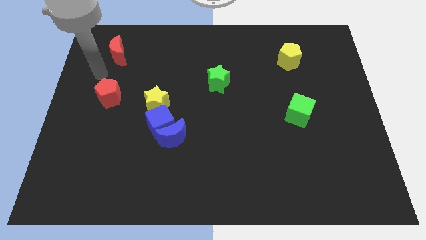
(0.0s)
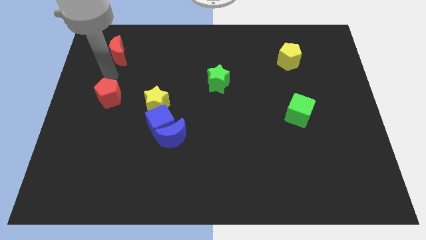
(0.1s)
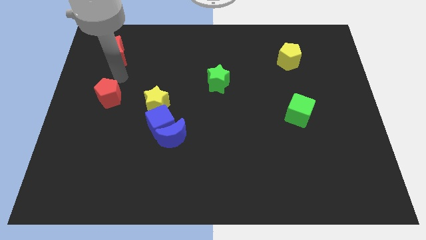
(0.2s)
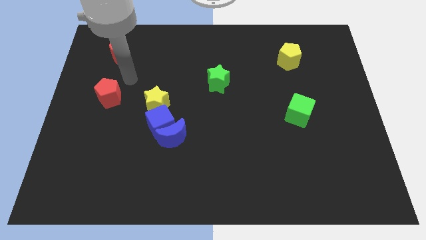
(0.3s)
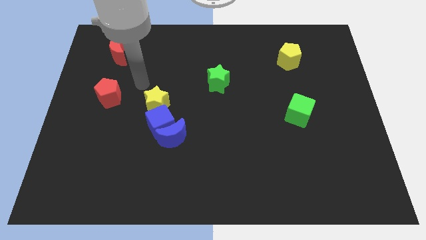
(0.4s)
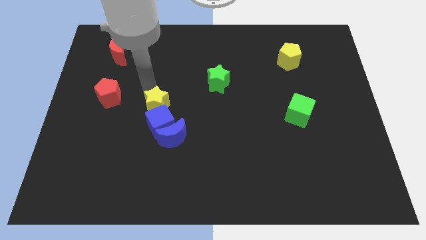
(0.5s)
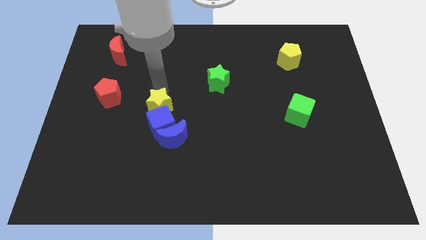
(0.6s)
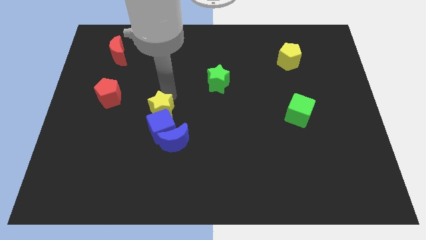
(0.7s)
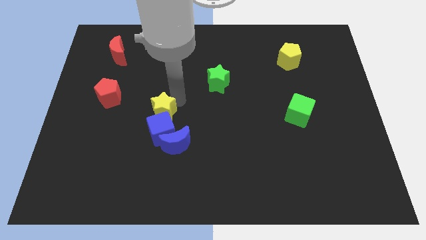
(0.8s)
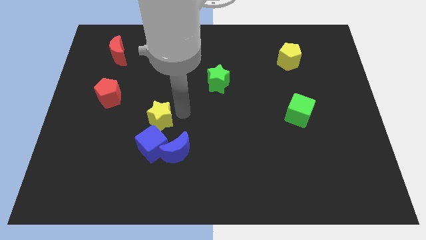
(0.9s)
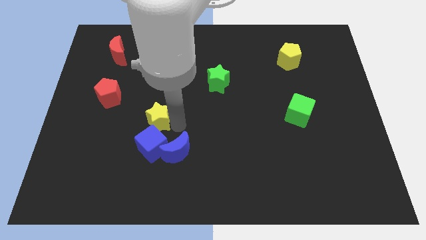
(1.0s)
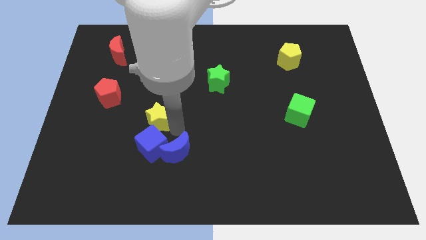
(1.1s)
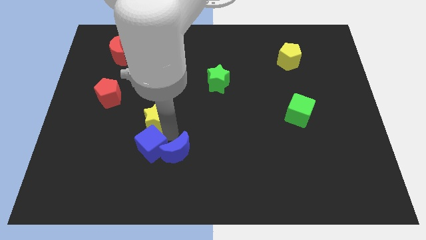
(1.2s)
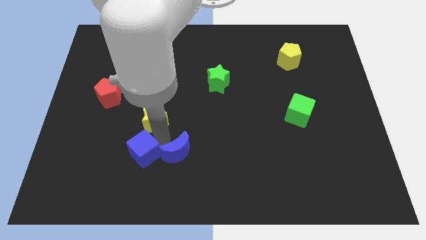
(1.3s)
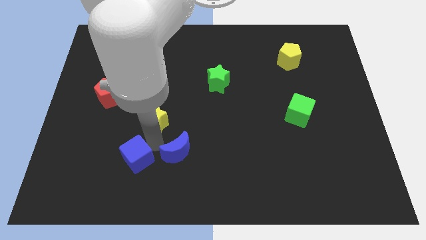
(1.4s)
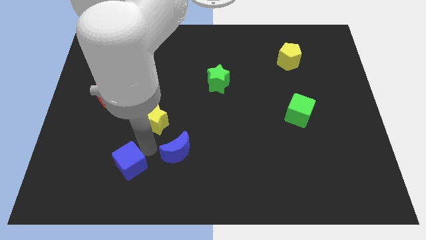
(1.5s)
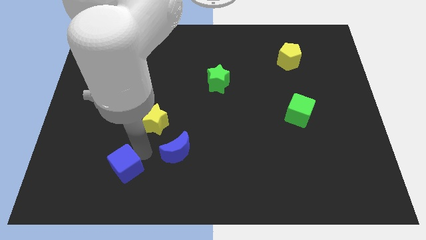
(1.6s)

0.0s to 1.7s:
move the blue cube away from the blue moon and yellow star

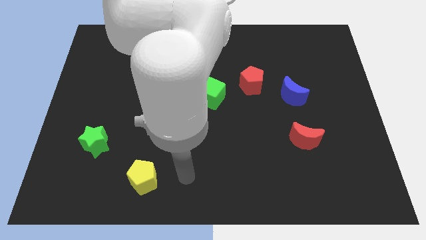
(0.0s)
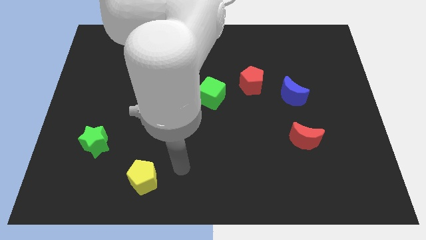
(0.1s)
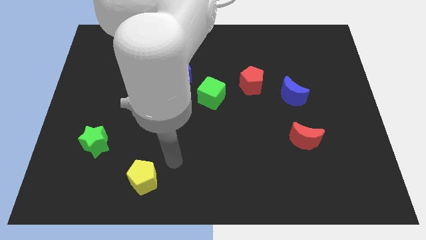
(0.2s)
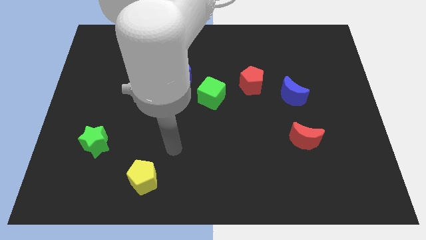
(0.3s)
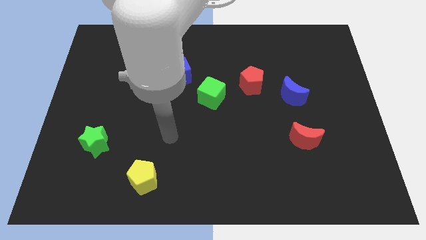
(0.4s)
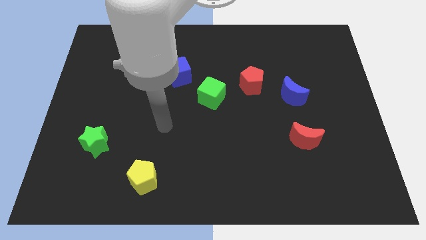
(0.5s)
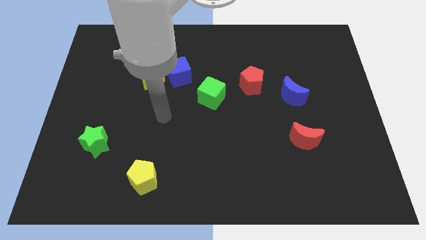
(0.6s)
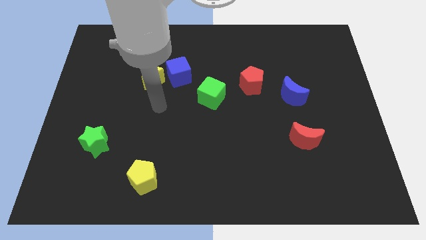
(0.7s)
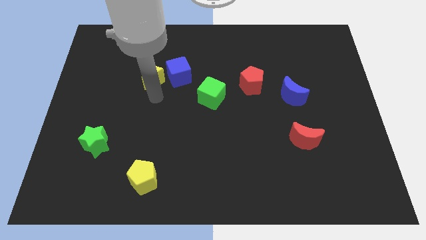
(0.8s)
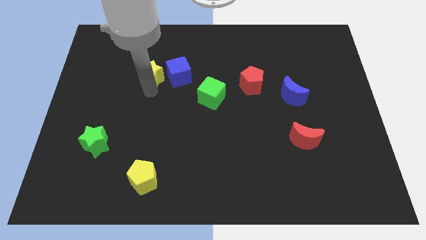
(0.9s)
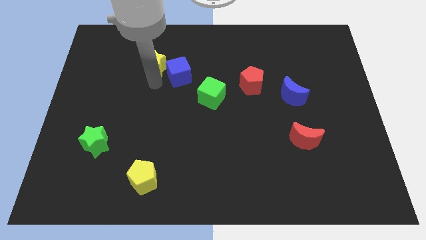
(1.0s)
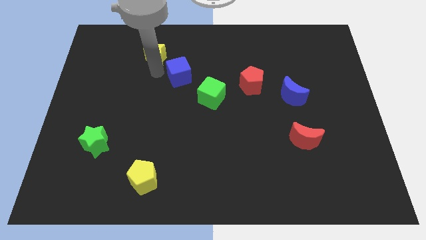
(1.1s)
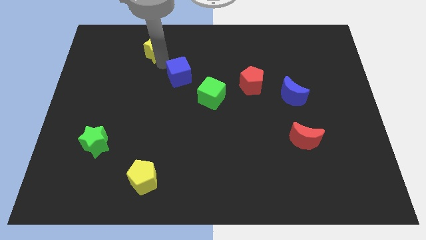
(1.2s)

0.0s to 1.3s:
move the blue cube away from the yellow star

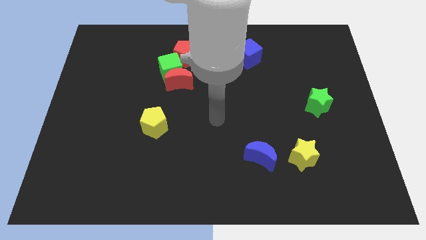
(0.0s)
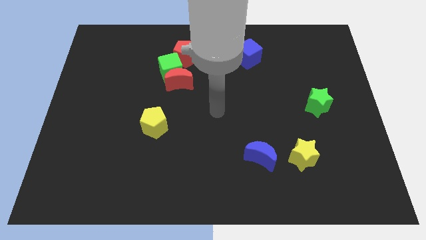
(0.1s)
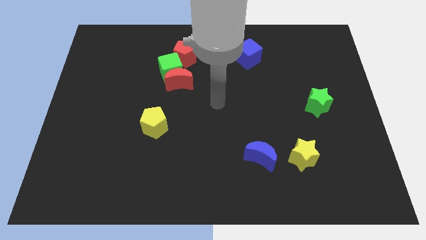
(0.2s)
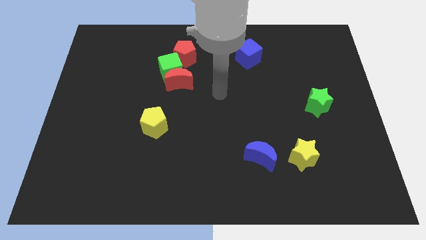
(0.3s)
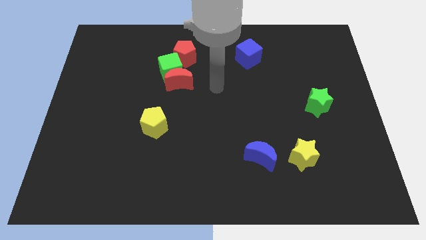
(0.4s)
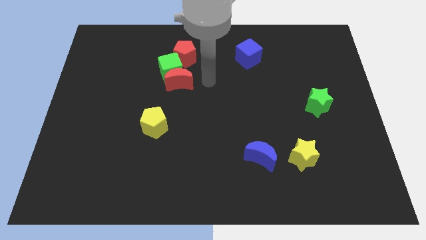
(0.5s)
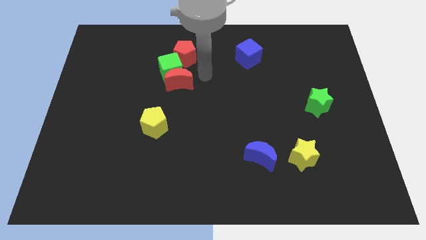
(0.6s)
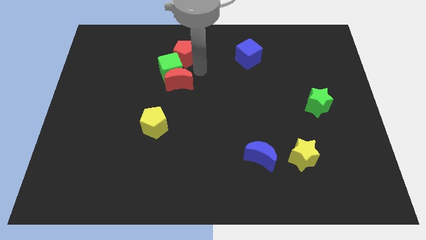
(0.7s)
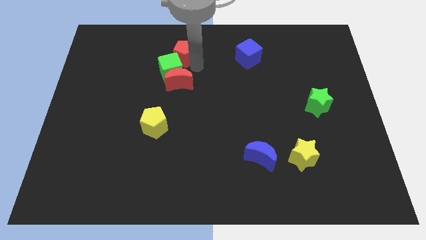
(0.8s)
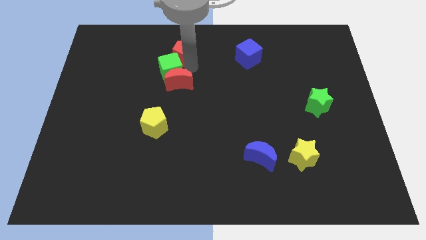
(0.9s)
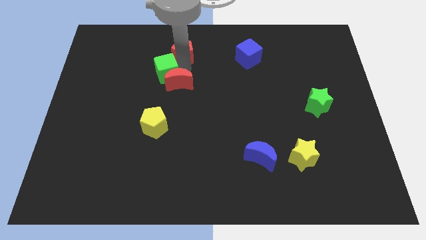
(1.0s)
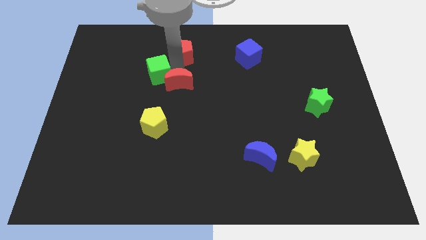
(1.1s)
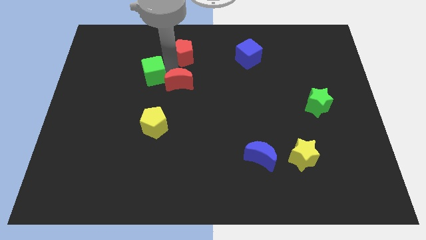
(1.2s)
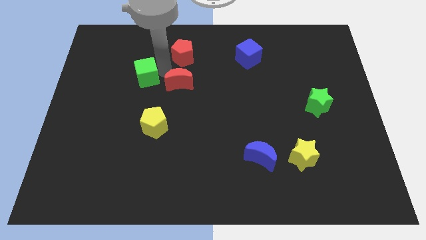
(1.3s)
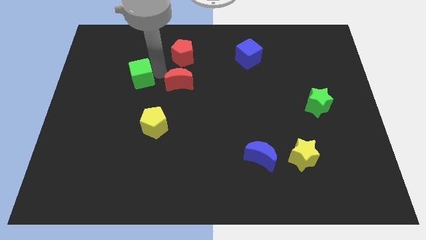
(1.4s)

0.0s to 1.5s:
move the green cube away from the red moon and red pentagon

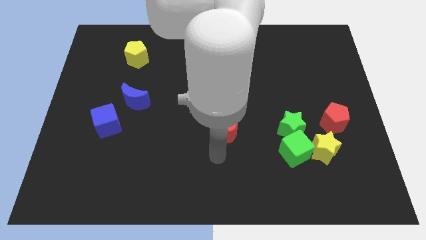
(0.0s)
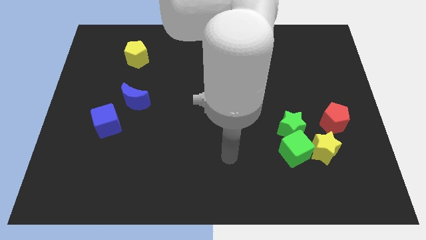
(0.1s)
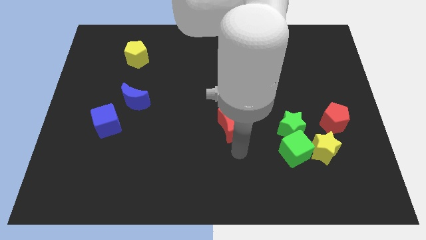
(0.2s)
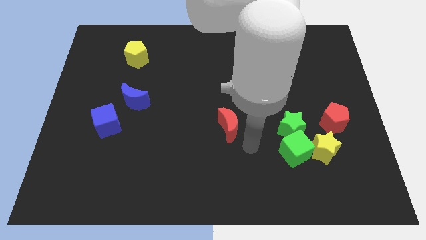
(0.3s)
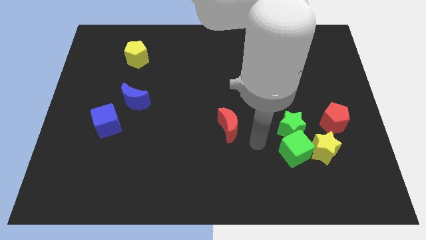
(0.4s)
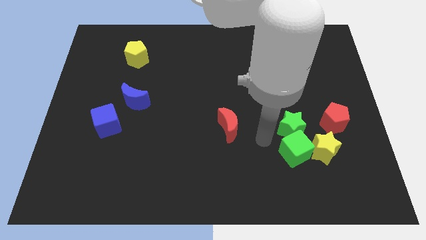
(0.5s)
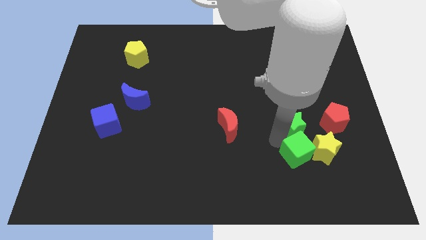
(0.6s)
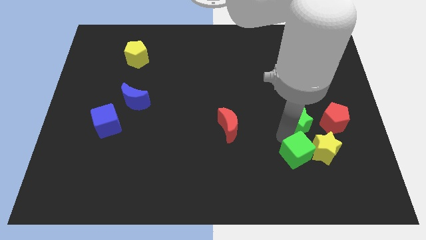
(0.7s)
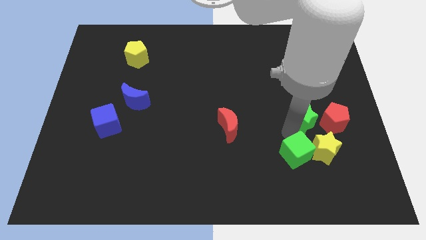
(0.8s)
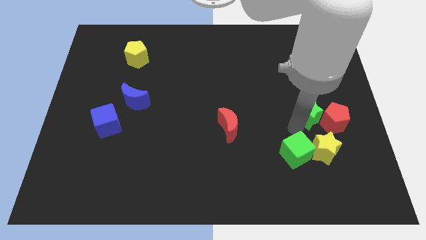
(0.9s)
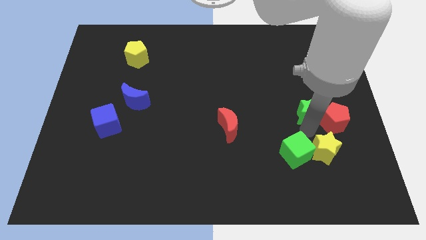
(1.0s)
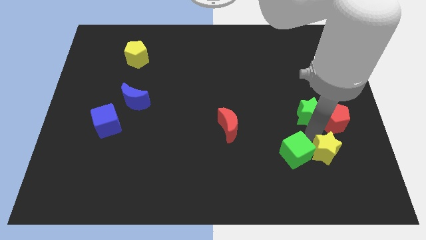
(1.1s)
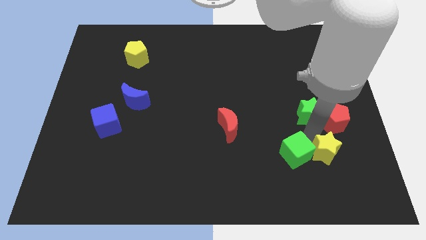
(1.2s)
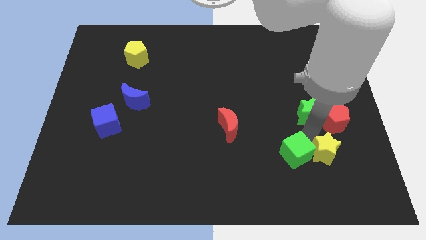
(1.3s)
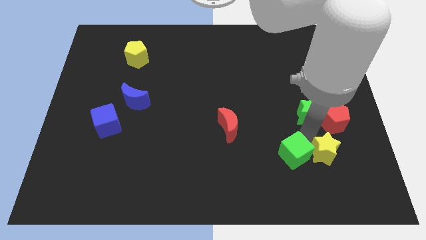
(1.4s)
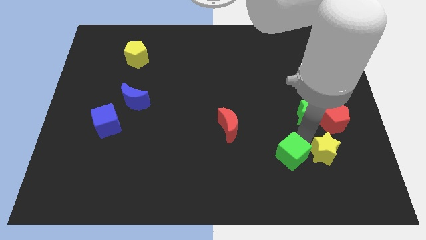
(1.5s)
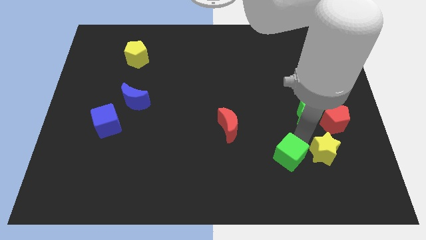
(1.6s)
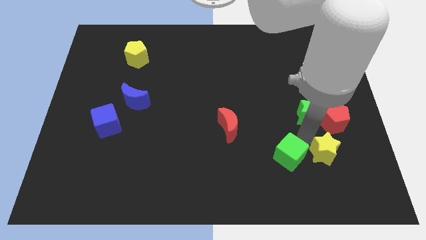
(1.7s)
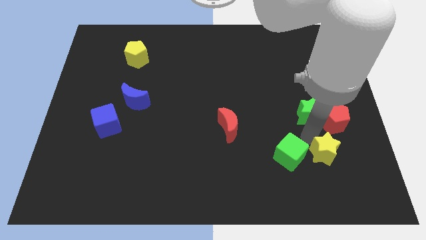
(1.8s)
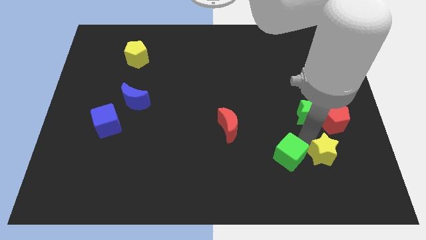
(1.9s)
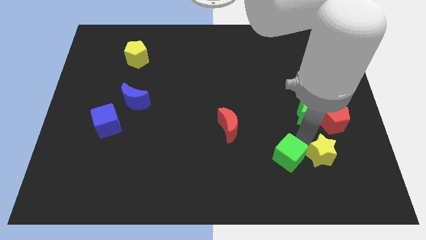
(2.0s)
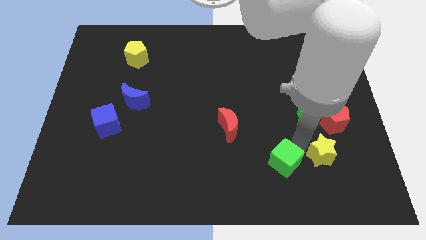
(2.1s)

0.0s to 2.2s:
pull the green cube apart from the green star and yellow star

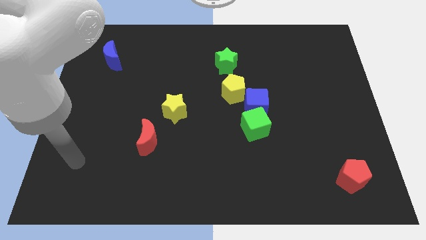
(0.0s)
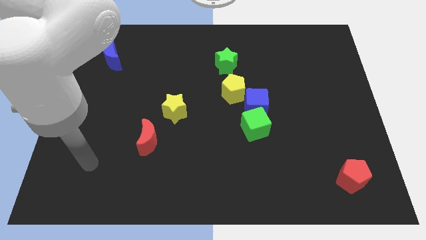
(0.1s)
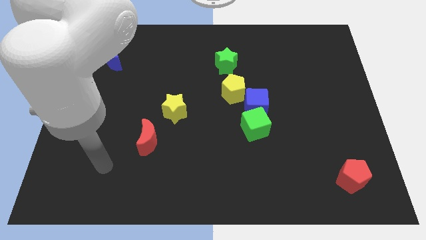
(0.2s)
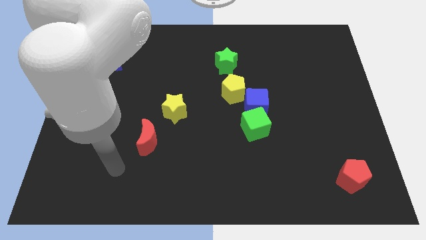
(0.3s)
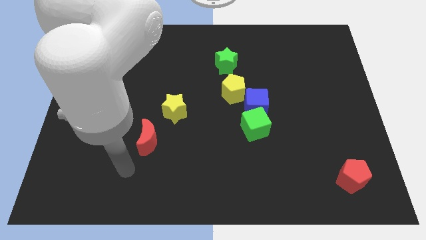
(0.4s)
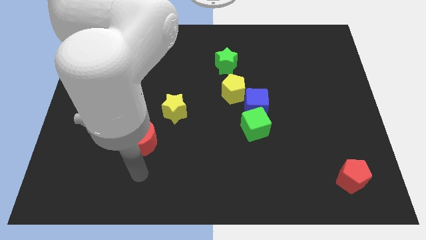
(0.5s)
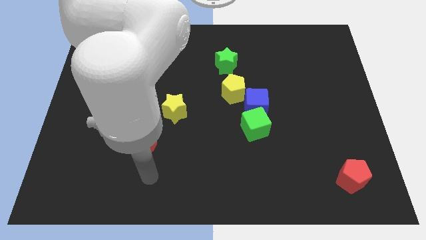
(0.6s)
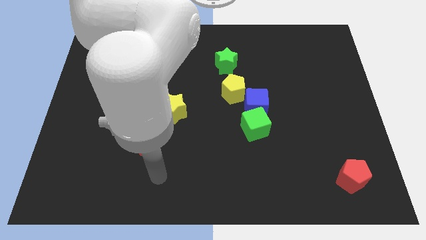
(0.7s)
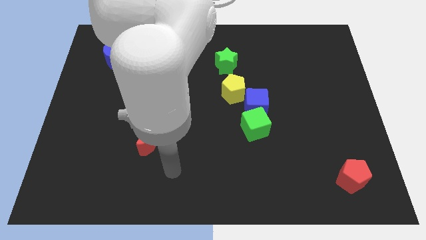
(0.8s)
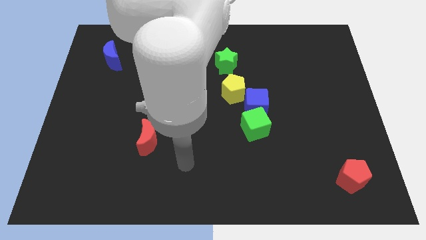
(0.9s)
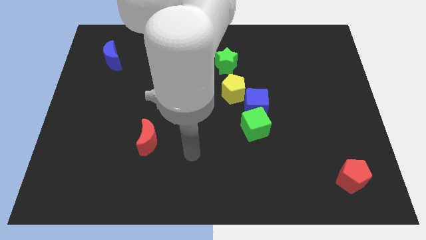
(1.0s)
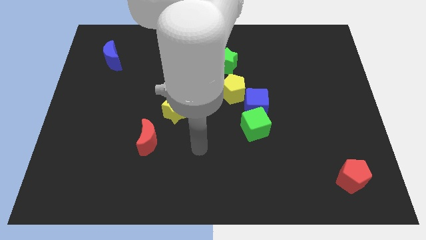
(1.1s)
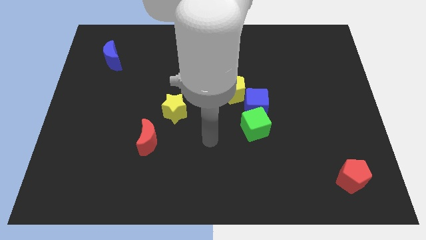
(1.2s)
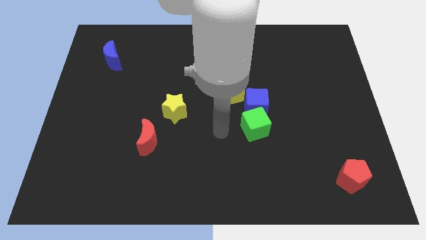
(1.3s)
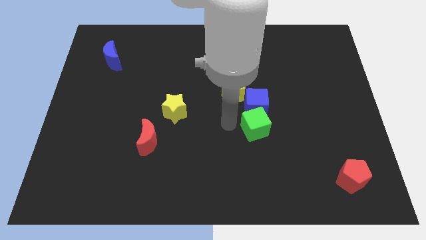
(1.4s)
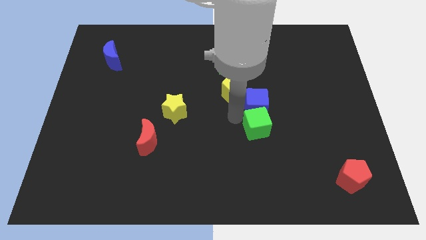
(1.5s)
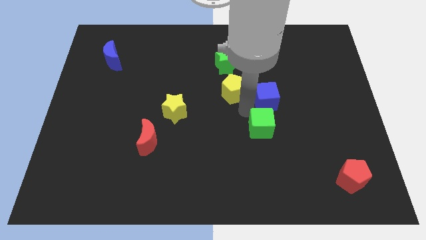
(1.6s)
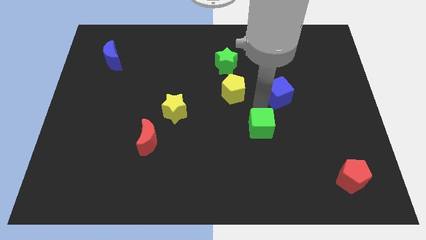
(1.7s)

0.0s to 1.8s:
separate the green cube from the blue cube

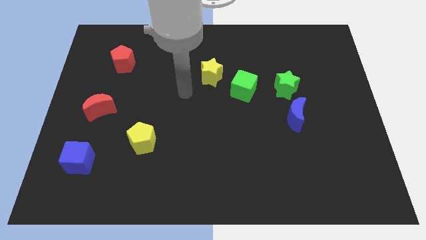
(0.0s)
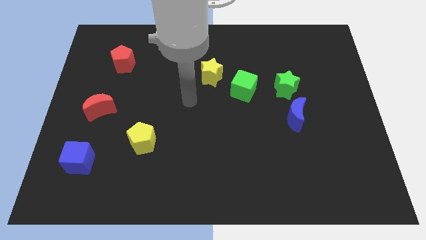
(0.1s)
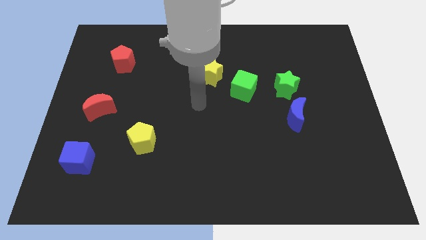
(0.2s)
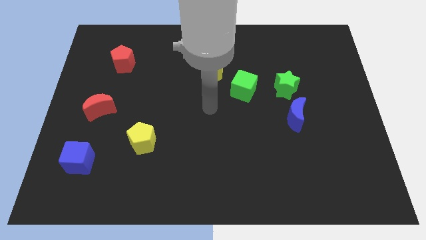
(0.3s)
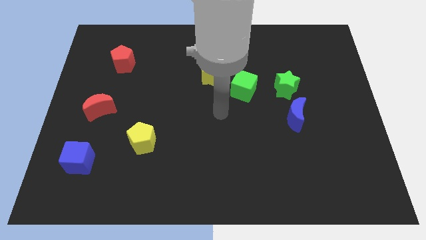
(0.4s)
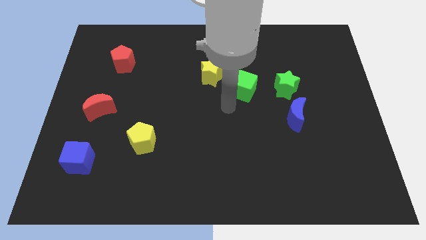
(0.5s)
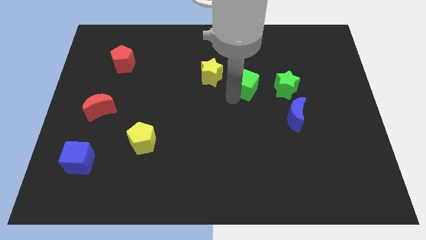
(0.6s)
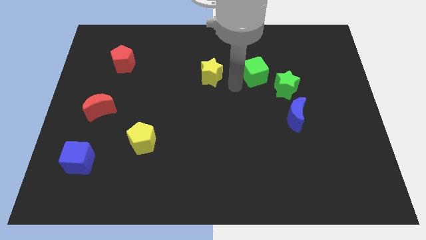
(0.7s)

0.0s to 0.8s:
separate the yellow star from the green cube
